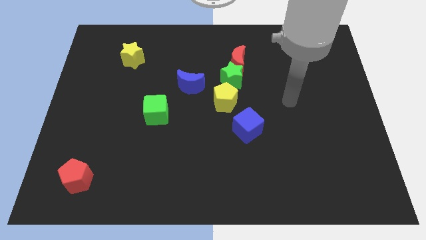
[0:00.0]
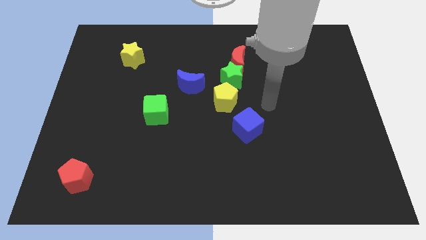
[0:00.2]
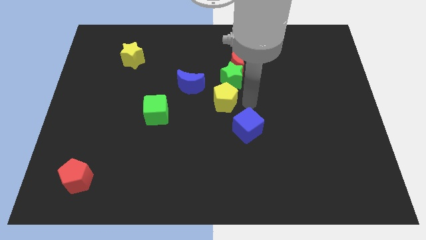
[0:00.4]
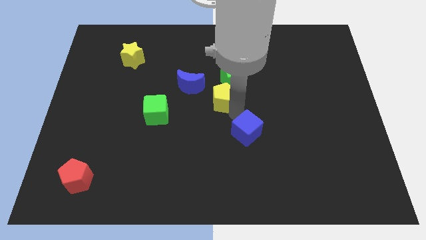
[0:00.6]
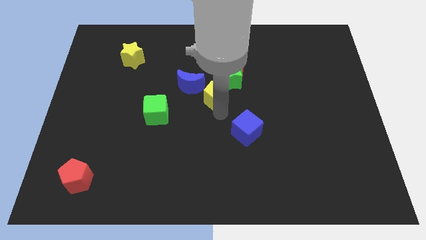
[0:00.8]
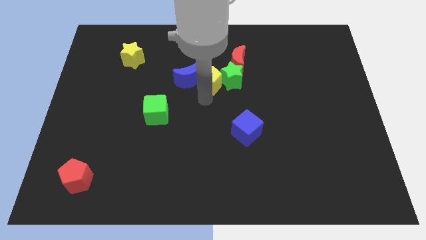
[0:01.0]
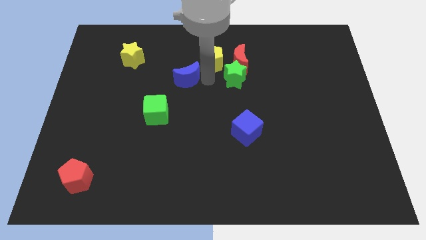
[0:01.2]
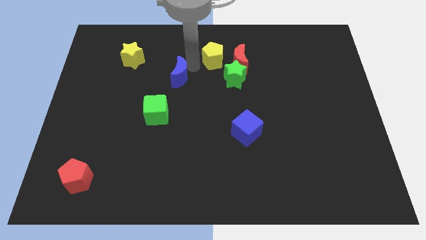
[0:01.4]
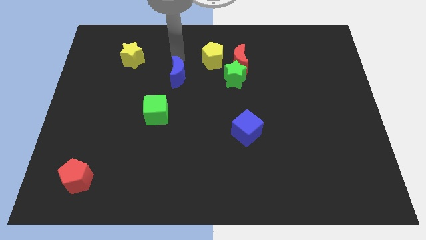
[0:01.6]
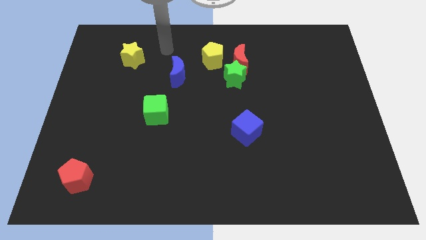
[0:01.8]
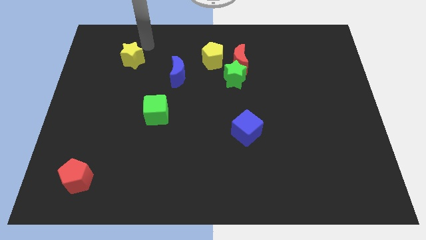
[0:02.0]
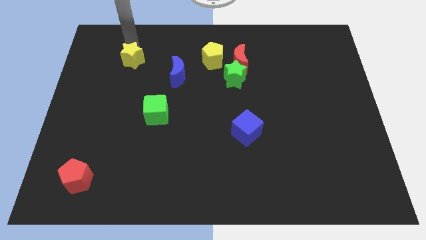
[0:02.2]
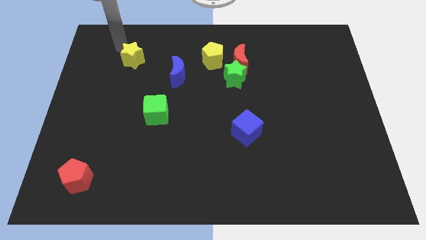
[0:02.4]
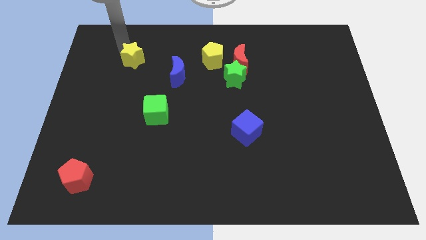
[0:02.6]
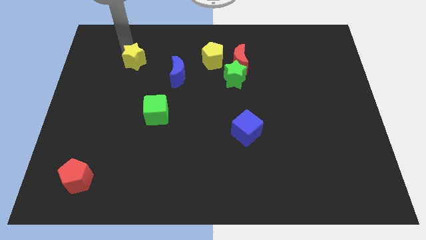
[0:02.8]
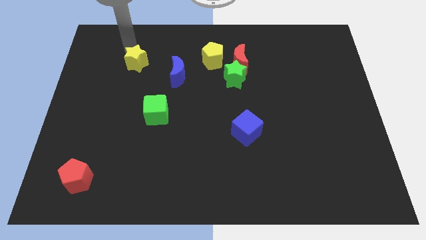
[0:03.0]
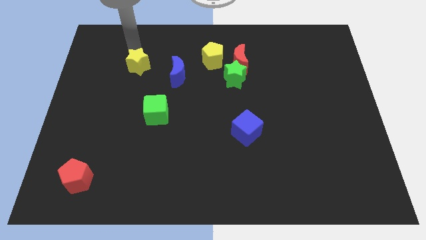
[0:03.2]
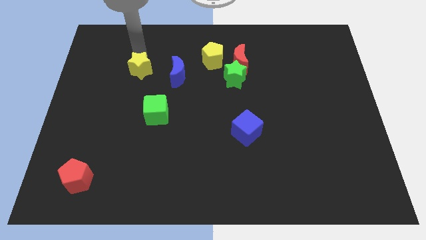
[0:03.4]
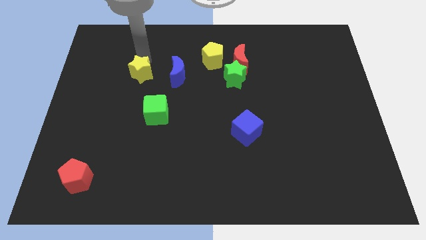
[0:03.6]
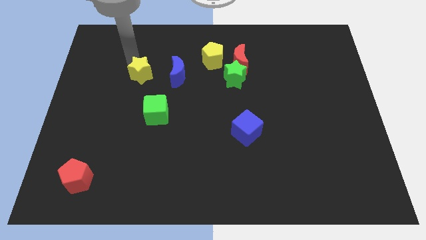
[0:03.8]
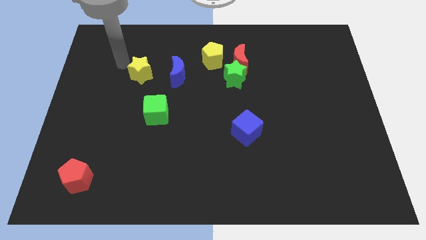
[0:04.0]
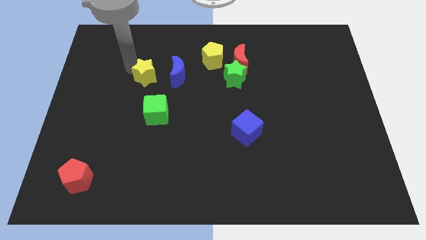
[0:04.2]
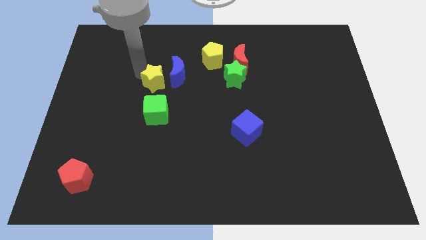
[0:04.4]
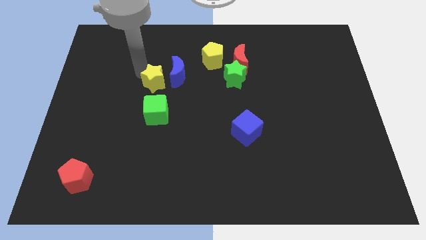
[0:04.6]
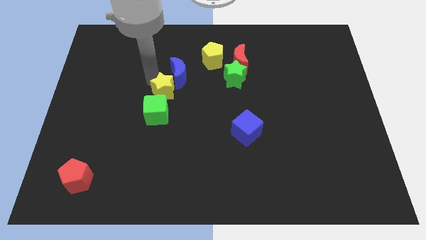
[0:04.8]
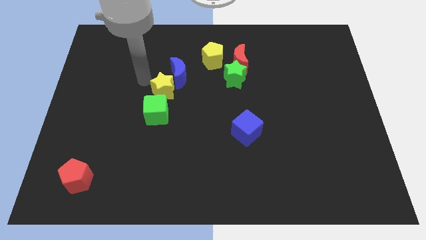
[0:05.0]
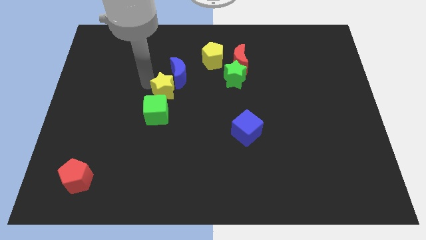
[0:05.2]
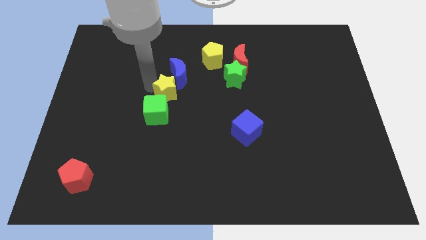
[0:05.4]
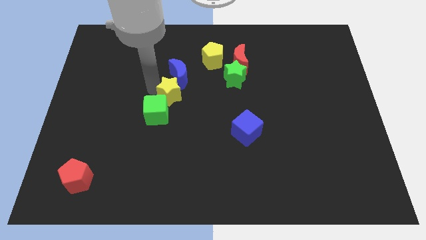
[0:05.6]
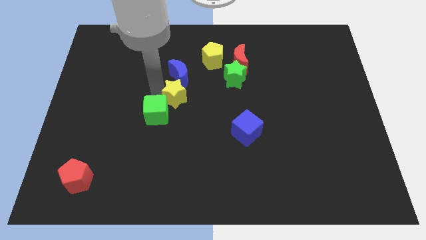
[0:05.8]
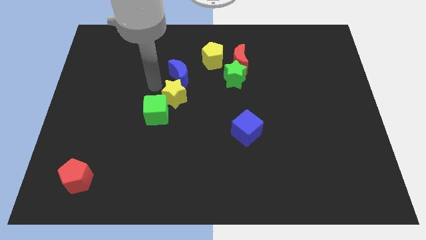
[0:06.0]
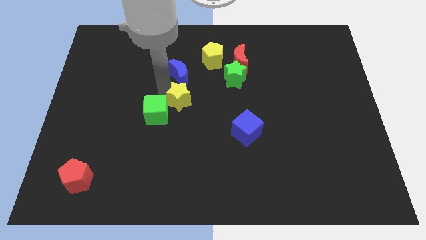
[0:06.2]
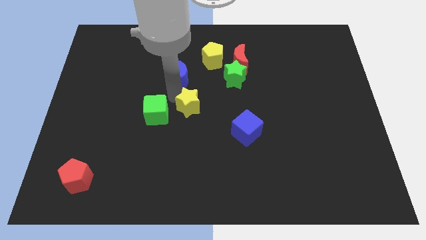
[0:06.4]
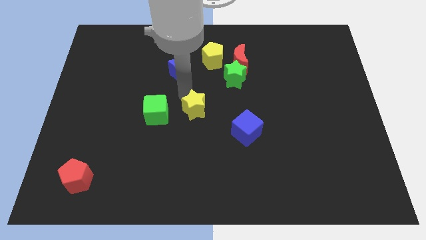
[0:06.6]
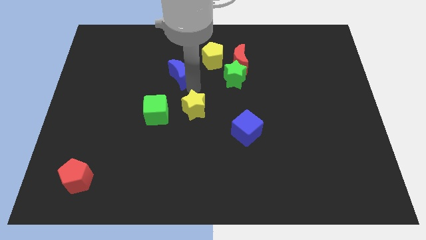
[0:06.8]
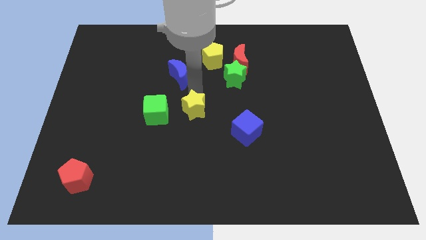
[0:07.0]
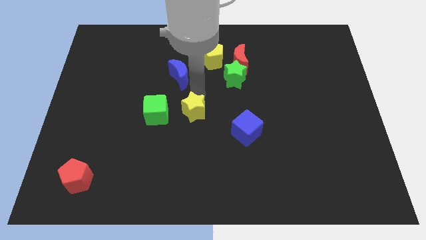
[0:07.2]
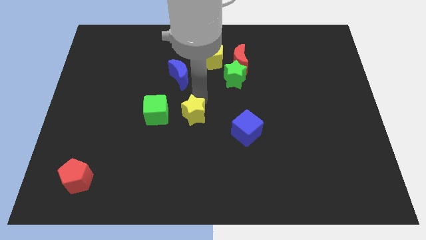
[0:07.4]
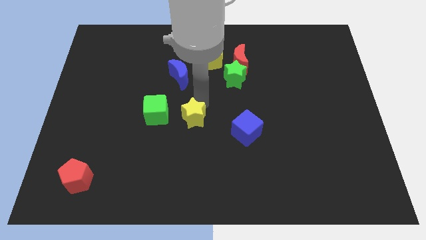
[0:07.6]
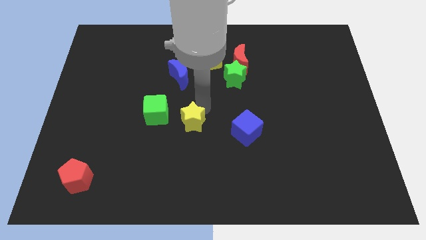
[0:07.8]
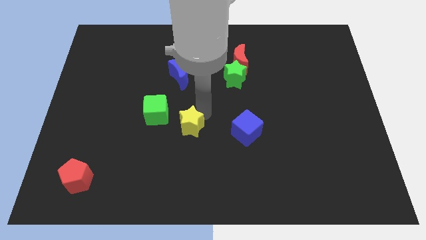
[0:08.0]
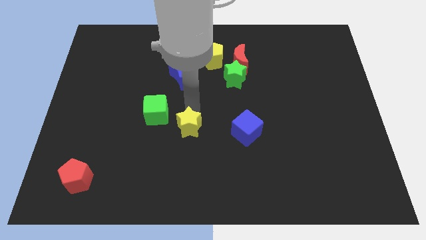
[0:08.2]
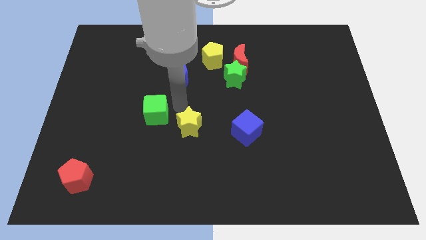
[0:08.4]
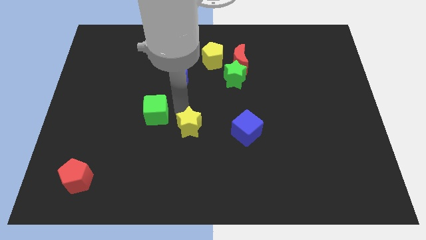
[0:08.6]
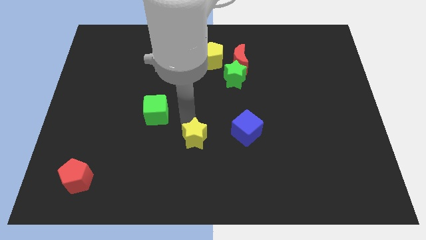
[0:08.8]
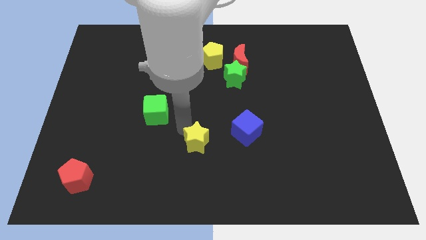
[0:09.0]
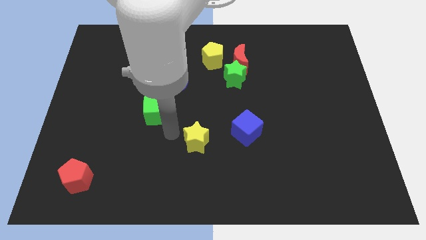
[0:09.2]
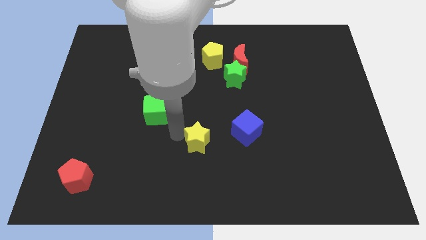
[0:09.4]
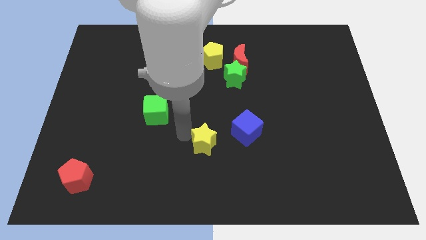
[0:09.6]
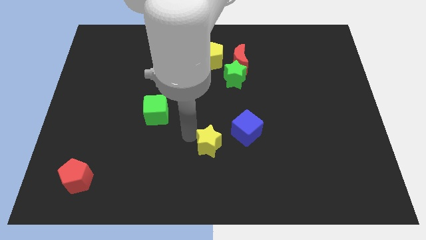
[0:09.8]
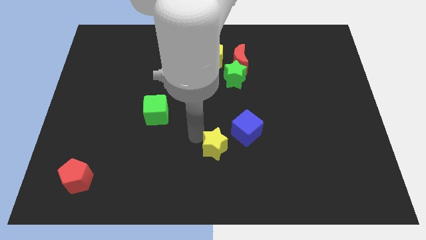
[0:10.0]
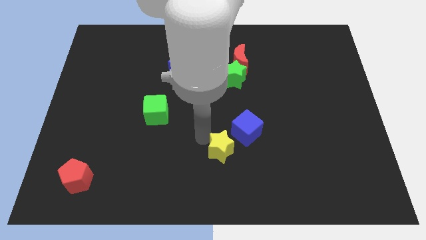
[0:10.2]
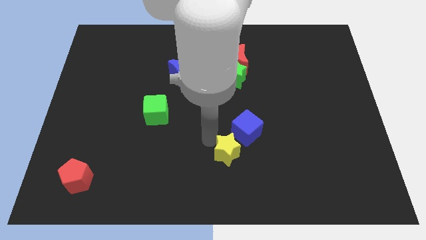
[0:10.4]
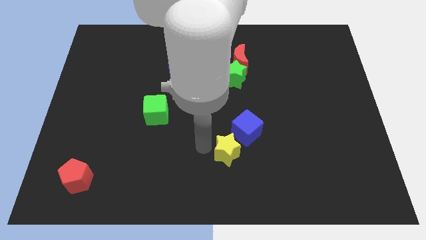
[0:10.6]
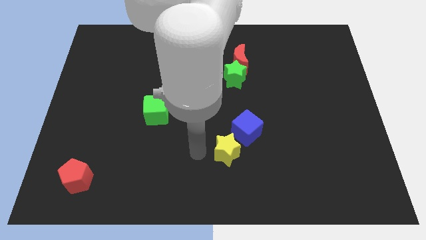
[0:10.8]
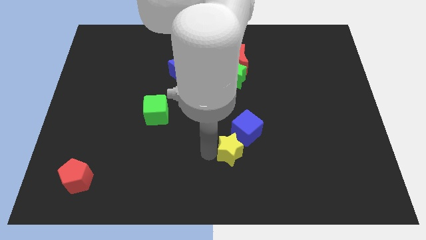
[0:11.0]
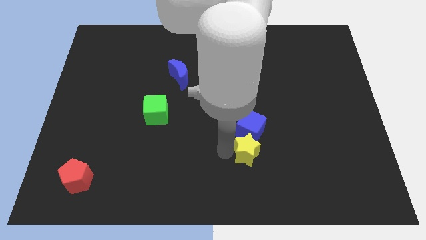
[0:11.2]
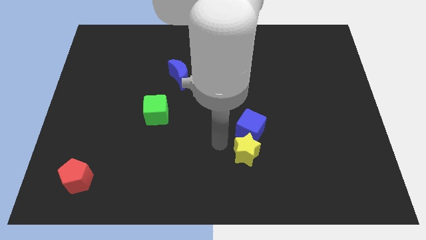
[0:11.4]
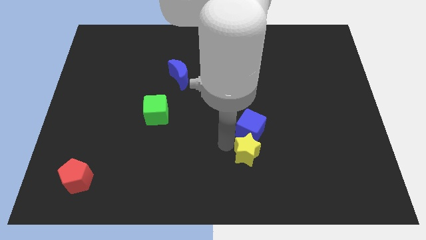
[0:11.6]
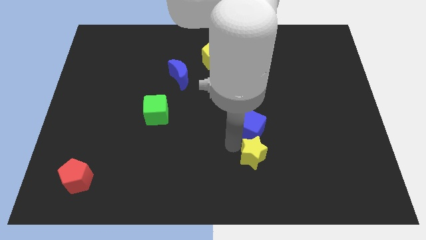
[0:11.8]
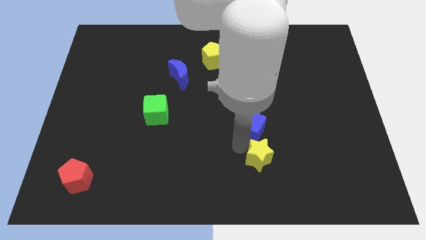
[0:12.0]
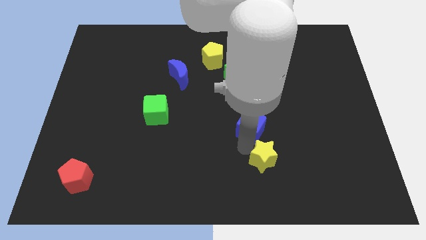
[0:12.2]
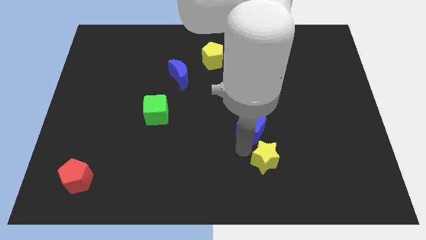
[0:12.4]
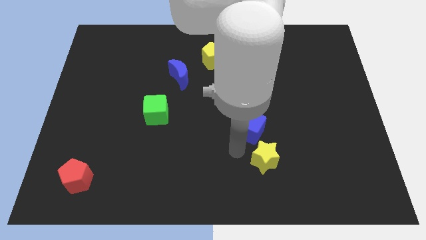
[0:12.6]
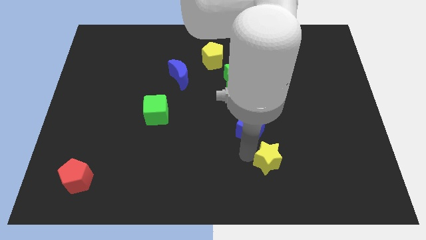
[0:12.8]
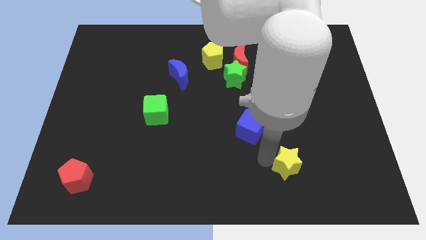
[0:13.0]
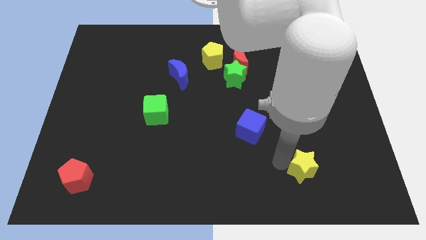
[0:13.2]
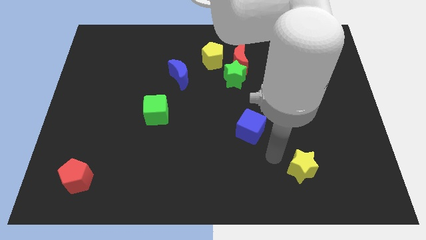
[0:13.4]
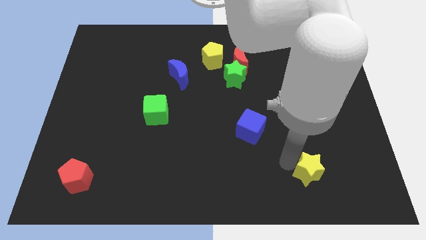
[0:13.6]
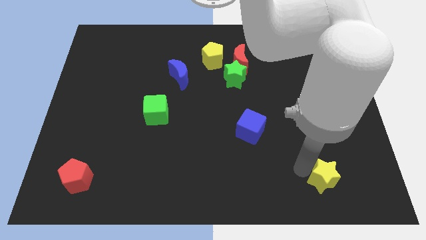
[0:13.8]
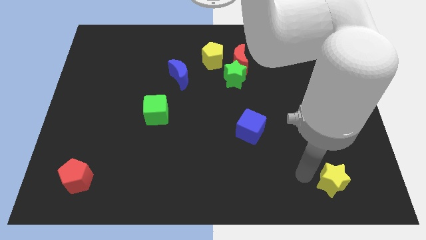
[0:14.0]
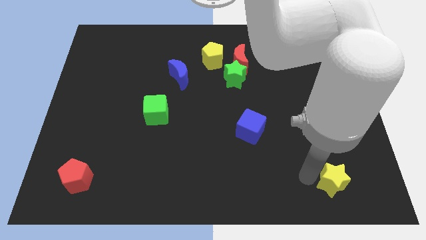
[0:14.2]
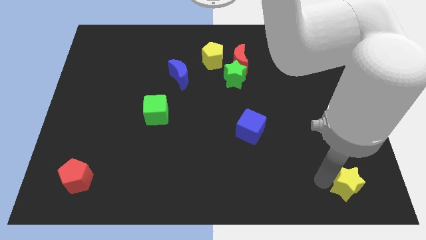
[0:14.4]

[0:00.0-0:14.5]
push the yellow star to the bottom right corner
